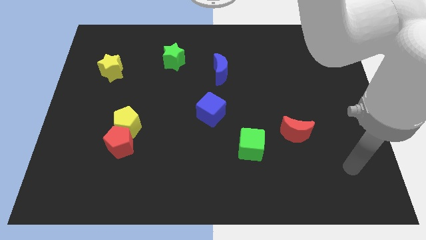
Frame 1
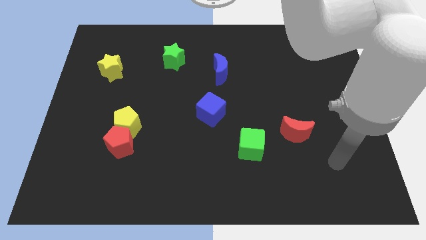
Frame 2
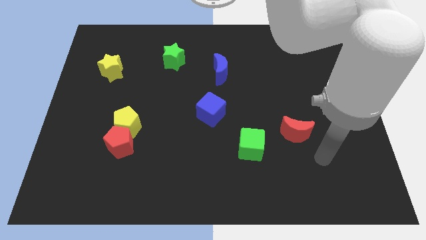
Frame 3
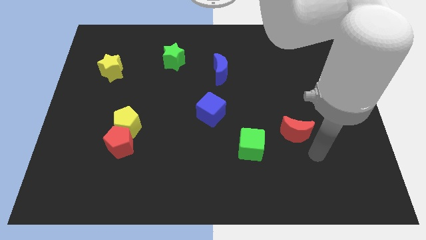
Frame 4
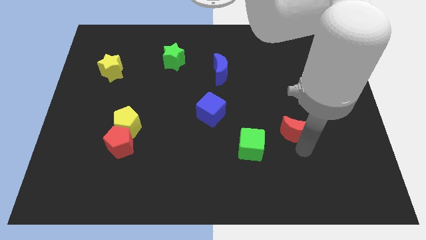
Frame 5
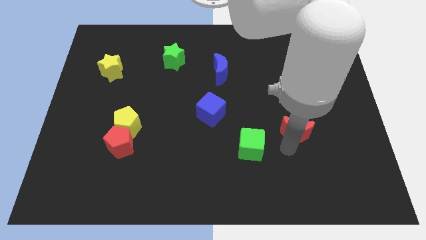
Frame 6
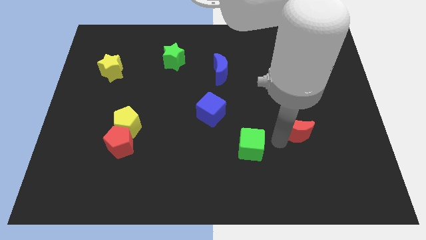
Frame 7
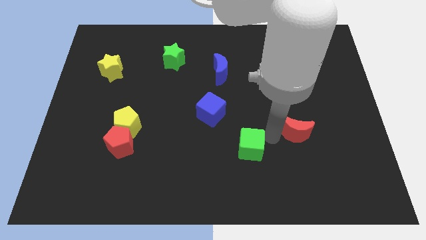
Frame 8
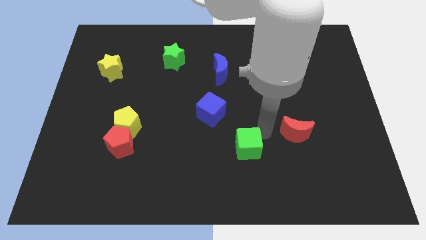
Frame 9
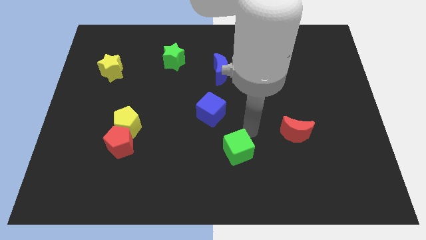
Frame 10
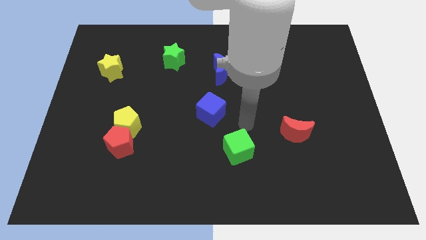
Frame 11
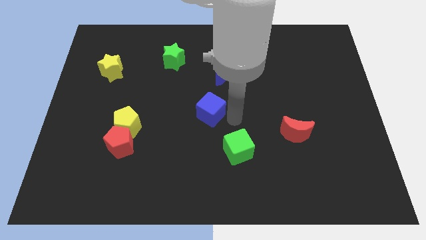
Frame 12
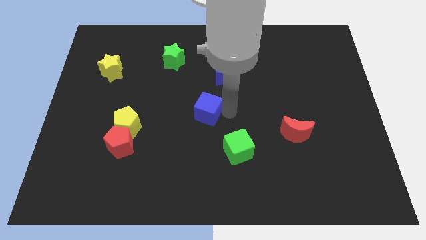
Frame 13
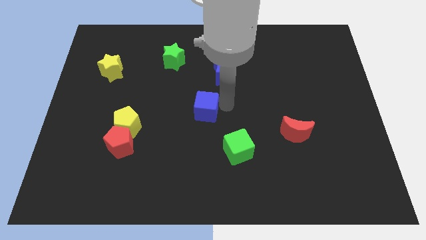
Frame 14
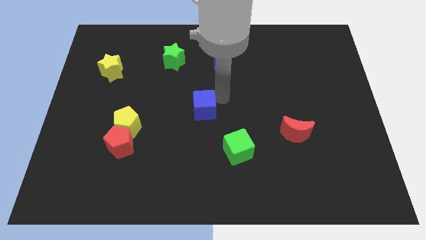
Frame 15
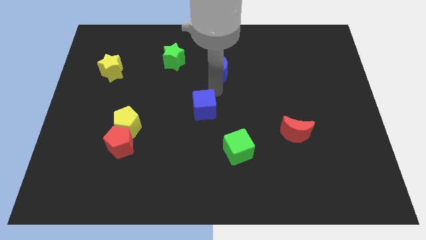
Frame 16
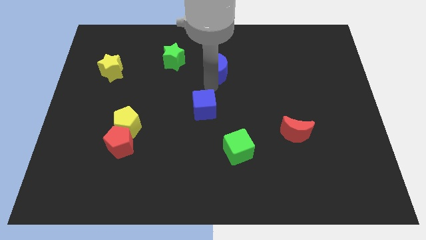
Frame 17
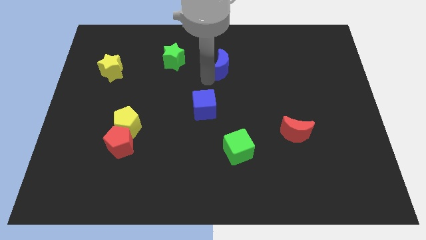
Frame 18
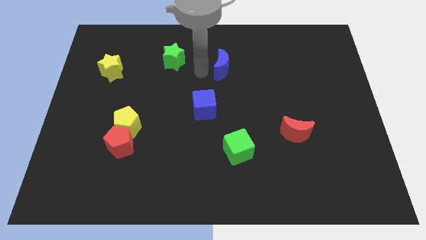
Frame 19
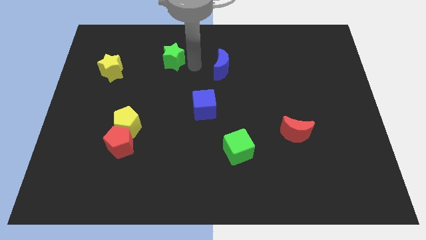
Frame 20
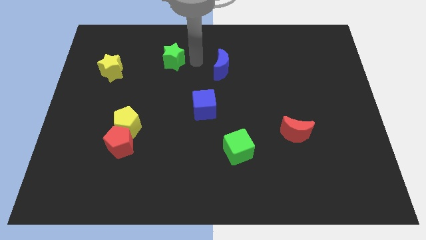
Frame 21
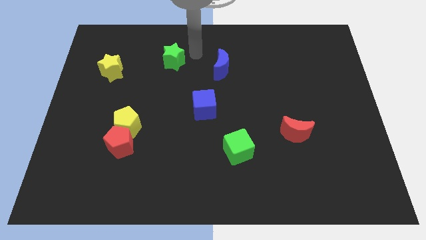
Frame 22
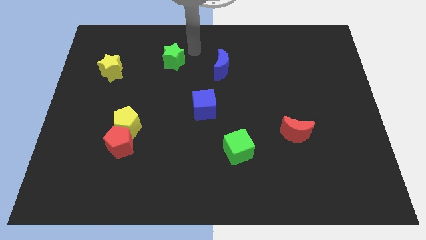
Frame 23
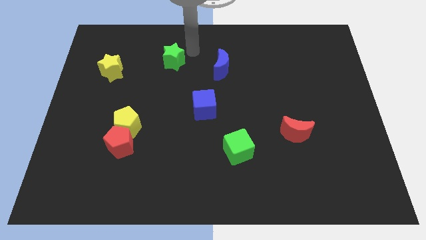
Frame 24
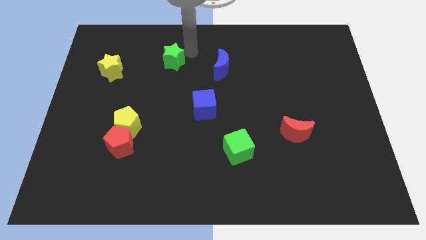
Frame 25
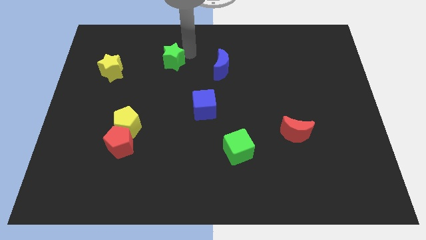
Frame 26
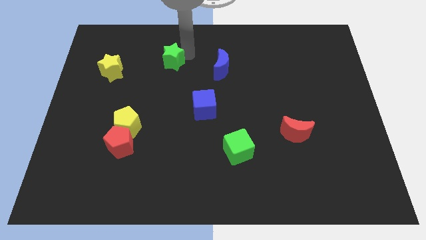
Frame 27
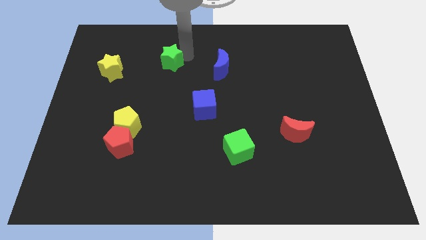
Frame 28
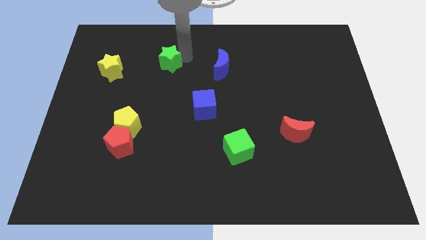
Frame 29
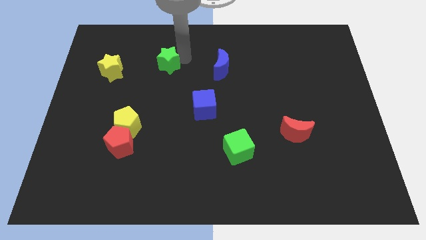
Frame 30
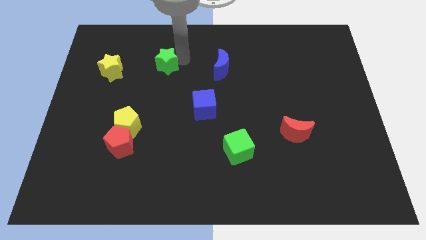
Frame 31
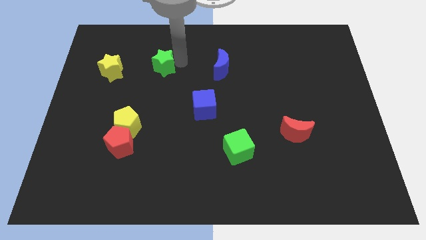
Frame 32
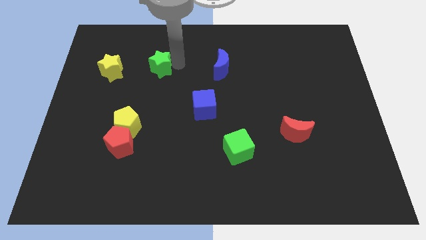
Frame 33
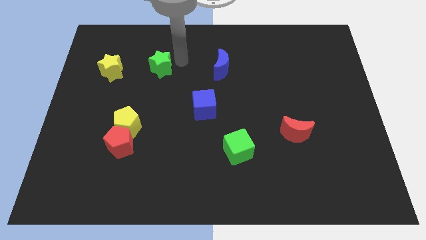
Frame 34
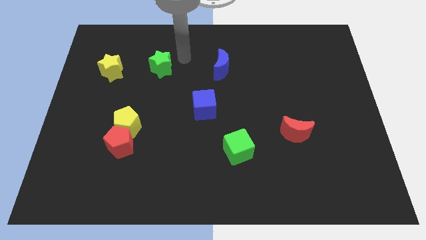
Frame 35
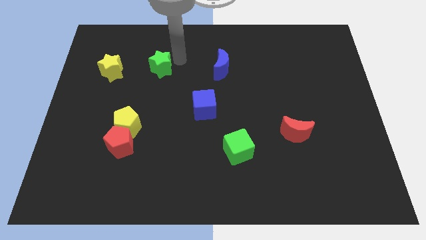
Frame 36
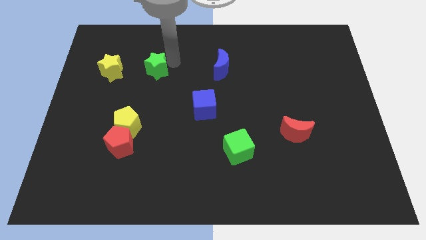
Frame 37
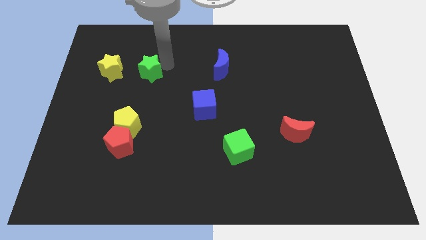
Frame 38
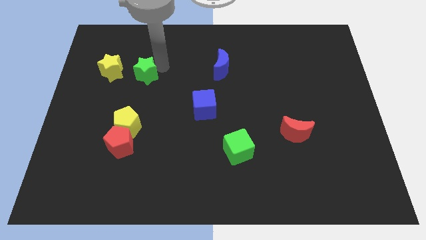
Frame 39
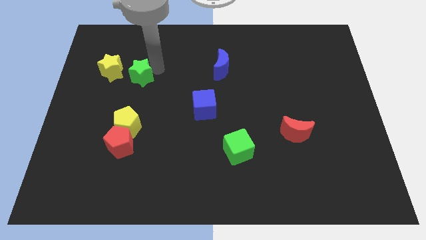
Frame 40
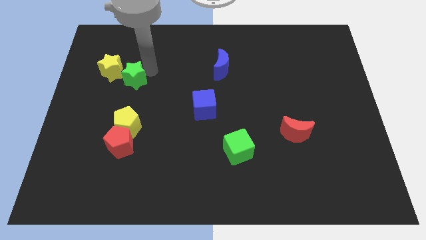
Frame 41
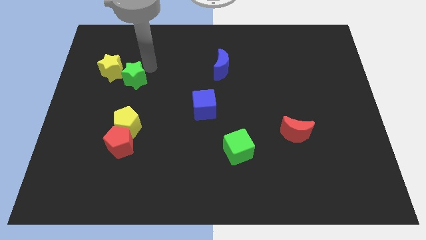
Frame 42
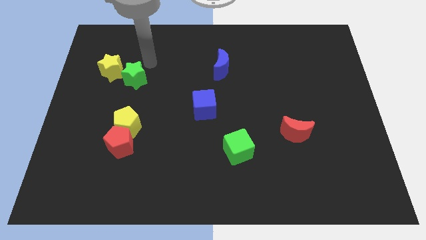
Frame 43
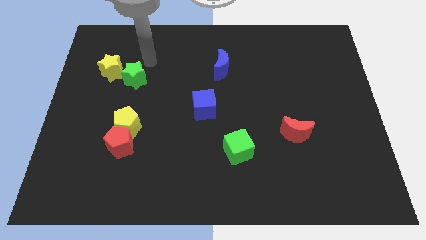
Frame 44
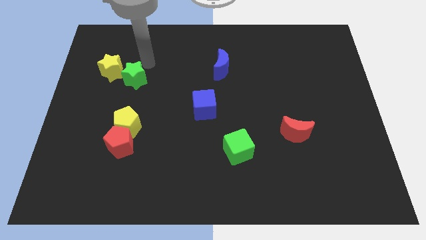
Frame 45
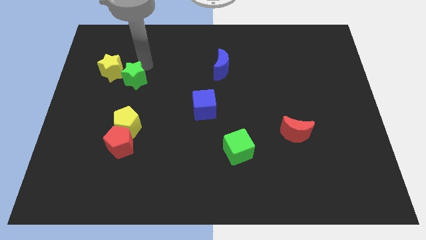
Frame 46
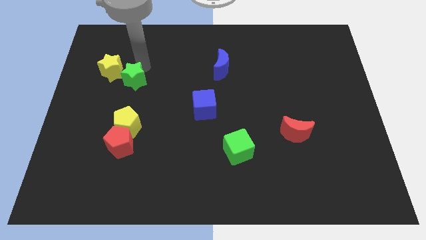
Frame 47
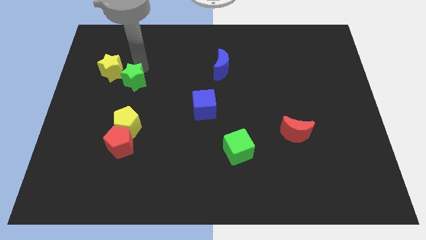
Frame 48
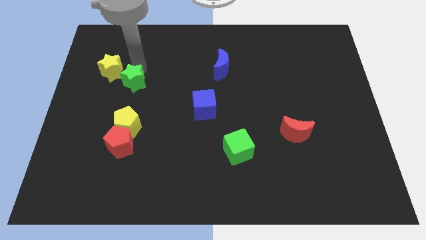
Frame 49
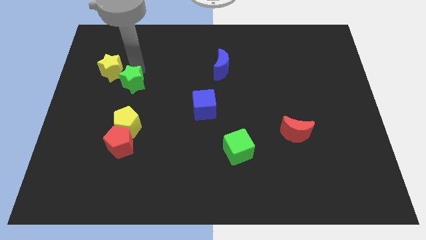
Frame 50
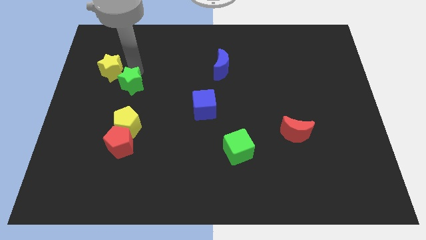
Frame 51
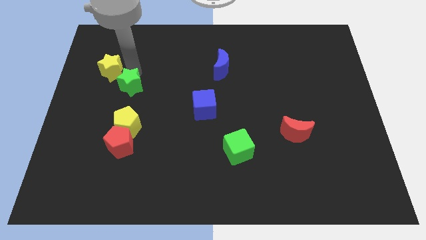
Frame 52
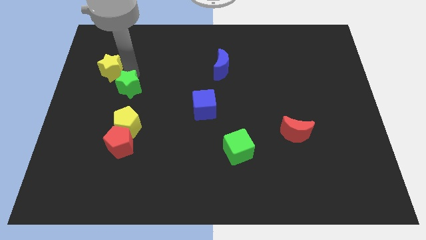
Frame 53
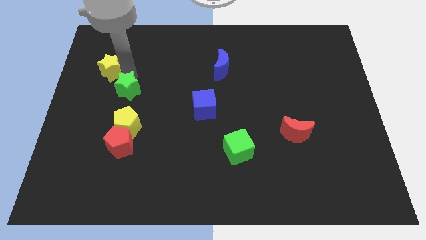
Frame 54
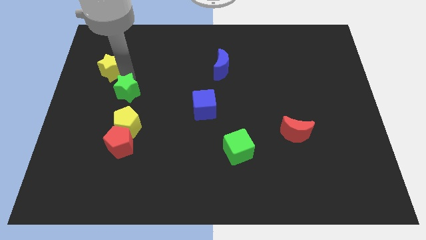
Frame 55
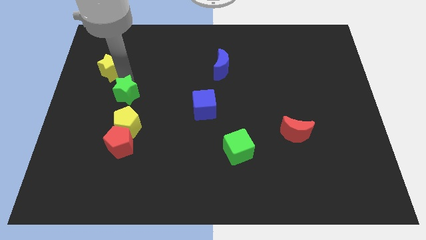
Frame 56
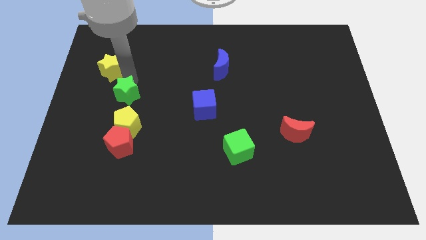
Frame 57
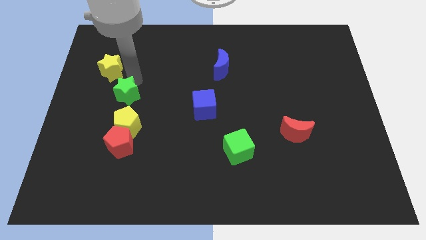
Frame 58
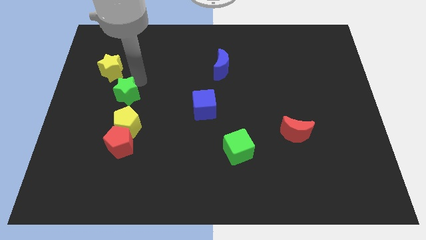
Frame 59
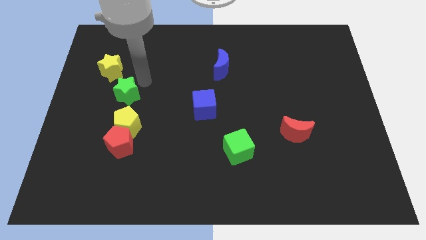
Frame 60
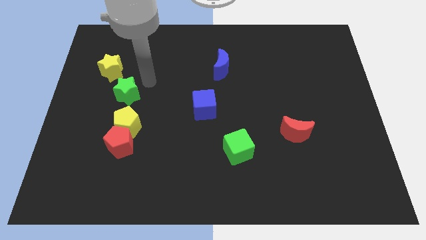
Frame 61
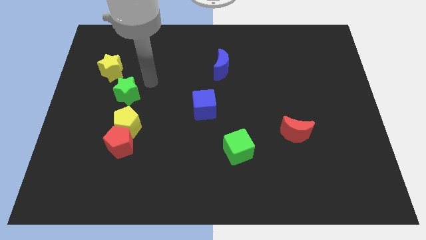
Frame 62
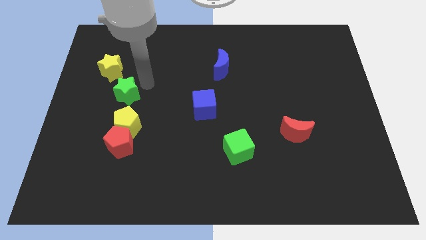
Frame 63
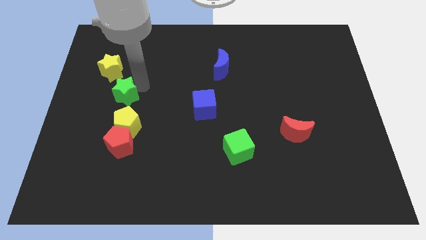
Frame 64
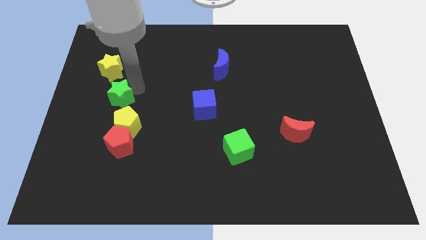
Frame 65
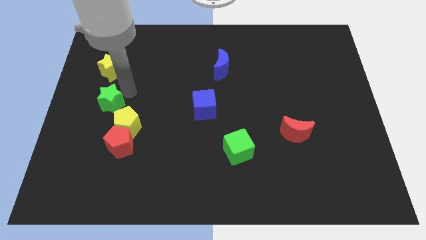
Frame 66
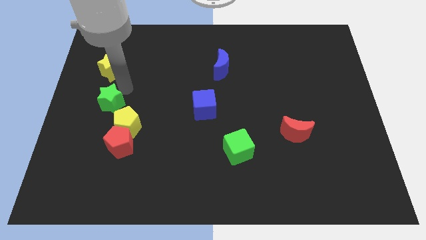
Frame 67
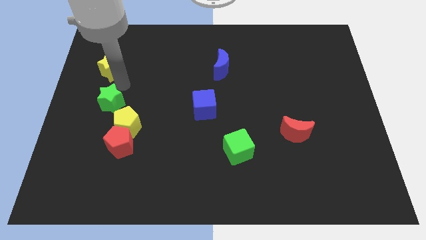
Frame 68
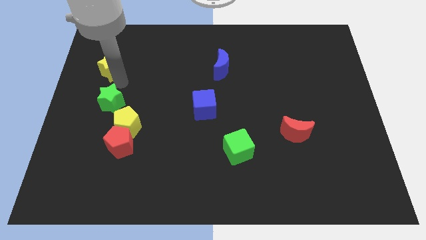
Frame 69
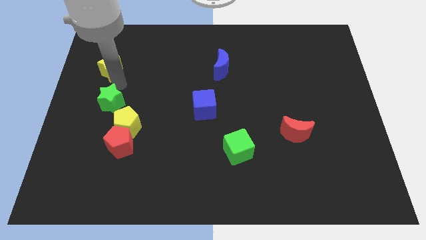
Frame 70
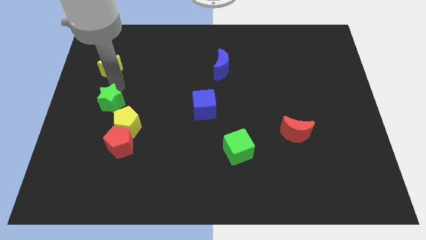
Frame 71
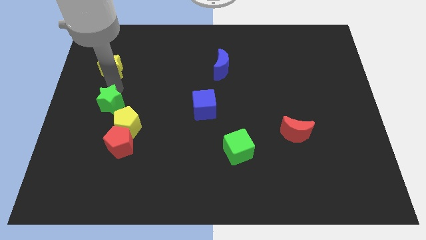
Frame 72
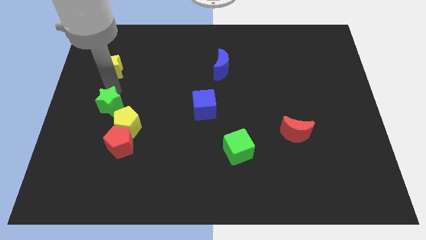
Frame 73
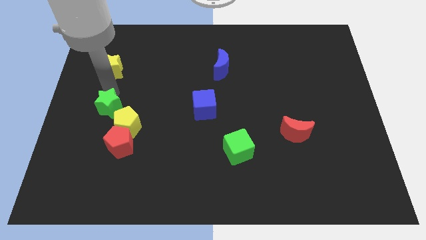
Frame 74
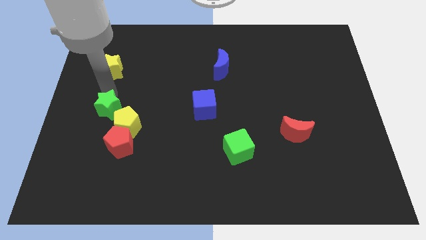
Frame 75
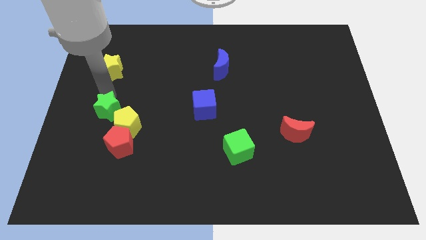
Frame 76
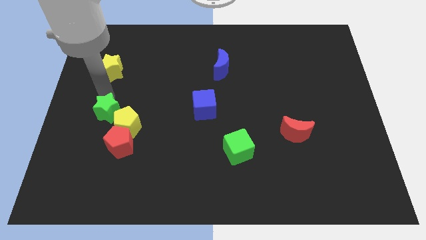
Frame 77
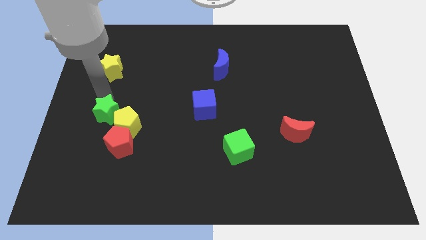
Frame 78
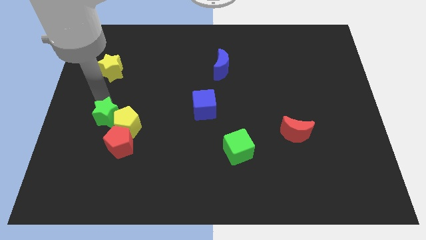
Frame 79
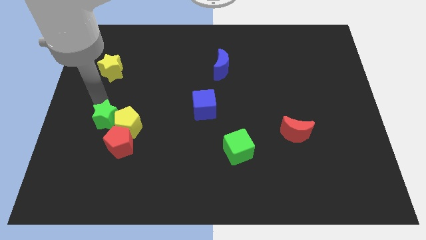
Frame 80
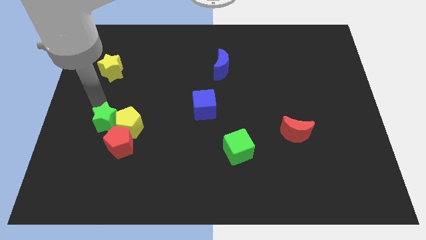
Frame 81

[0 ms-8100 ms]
move the green star to the bottom left side of the yellow pentagon
